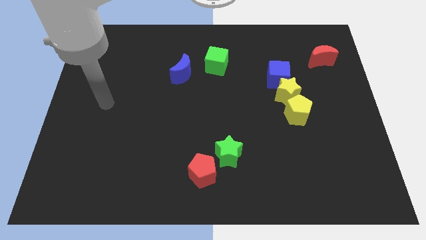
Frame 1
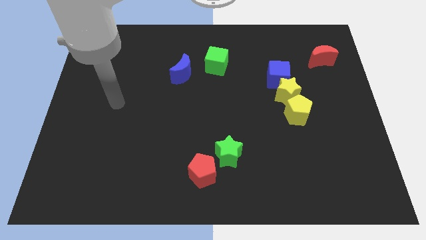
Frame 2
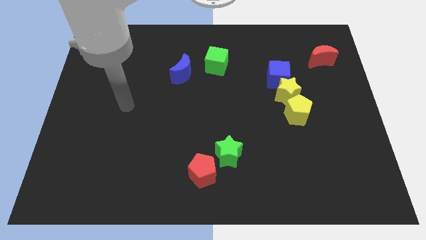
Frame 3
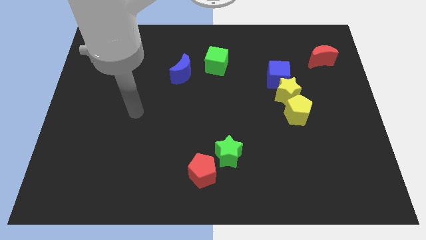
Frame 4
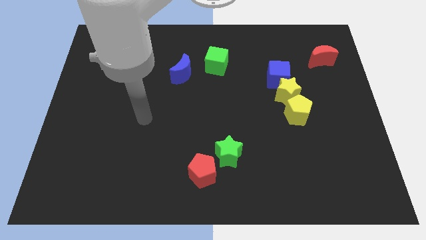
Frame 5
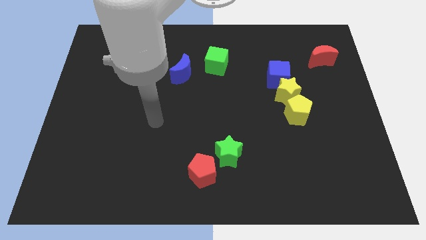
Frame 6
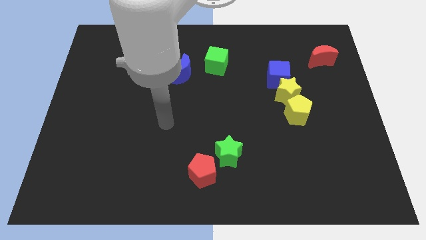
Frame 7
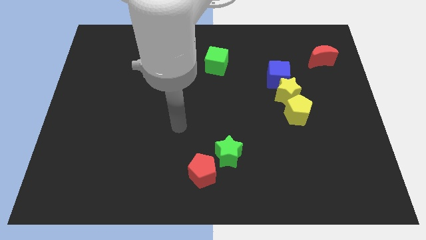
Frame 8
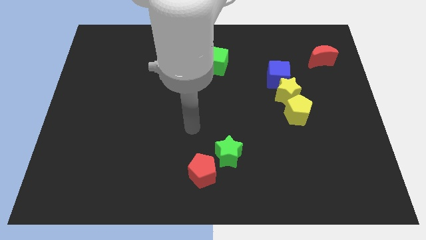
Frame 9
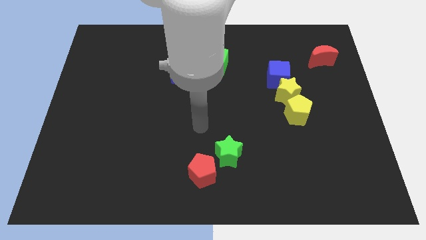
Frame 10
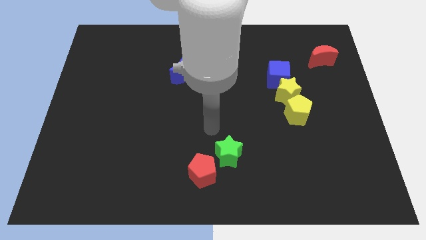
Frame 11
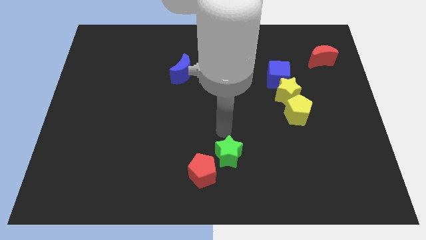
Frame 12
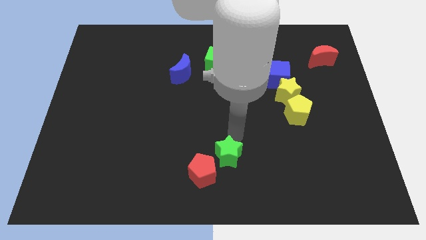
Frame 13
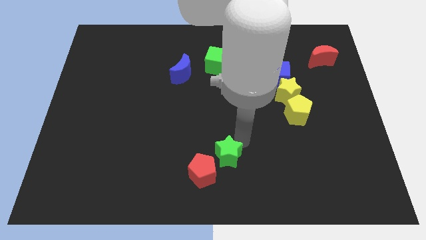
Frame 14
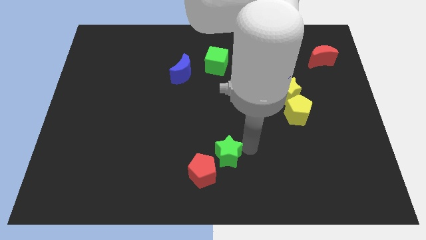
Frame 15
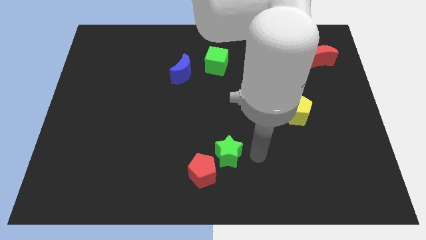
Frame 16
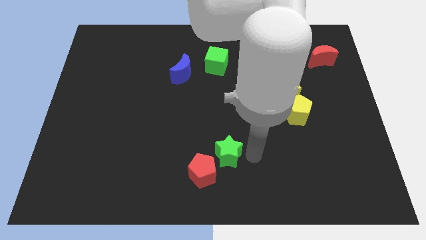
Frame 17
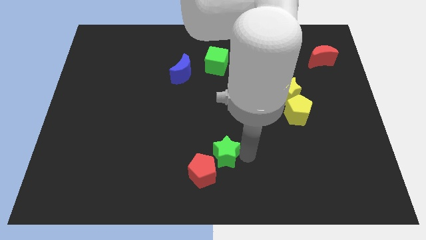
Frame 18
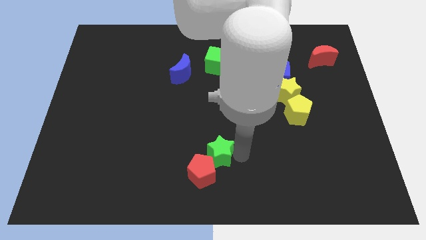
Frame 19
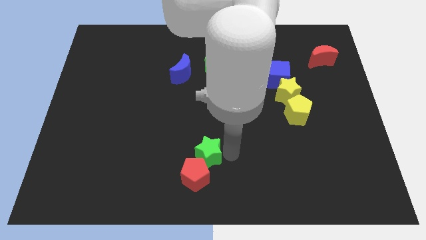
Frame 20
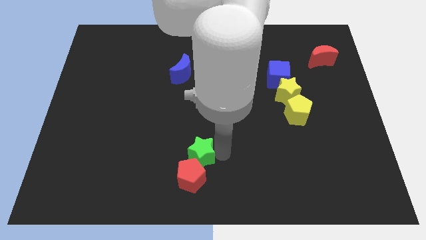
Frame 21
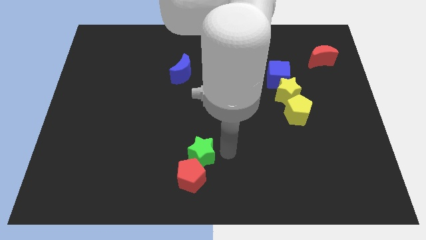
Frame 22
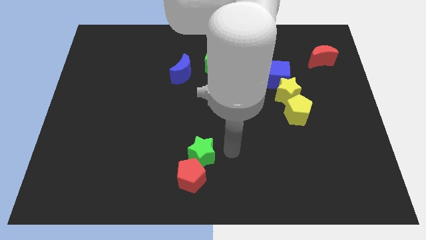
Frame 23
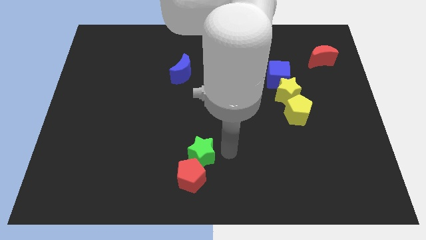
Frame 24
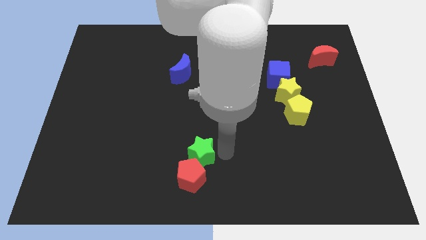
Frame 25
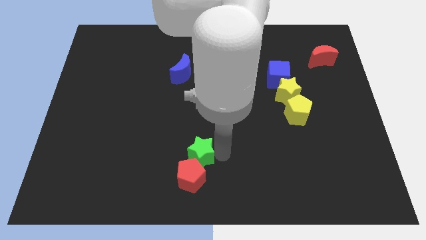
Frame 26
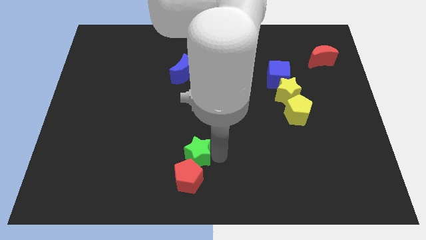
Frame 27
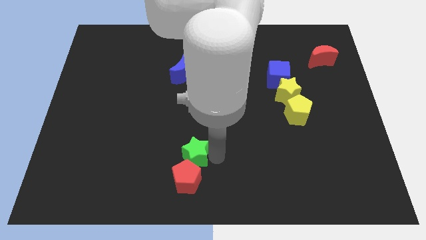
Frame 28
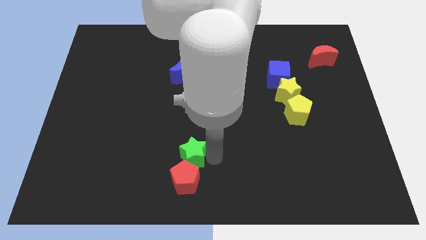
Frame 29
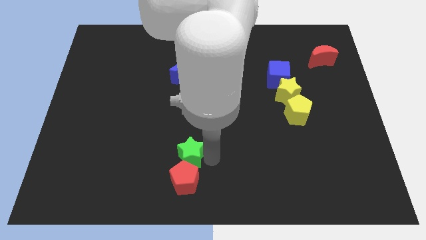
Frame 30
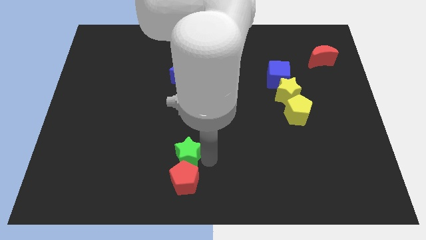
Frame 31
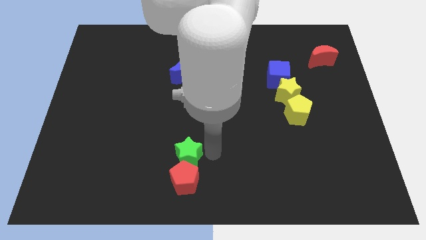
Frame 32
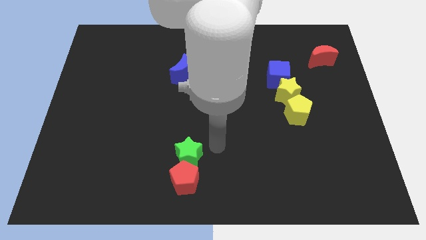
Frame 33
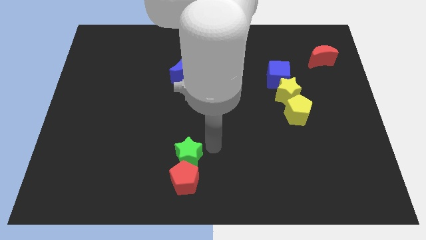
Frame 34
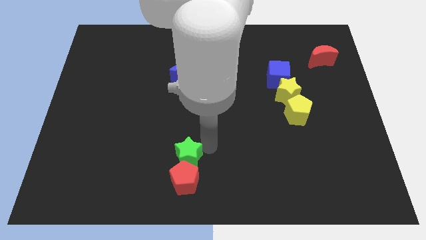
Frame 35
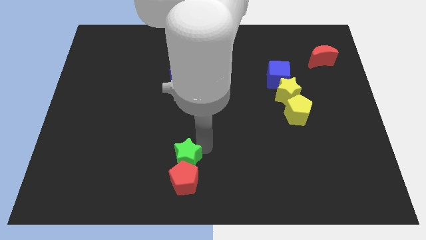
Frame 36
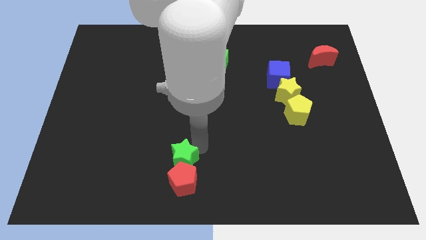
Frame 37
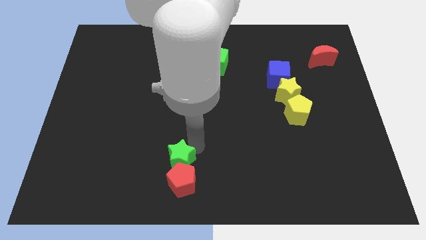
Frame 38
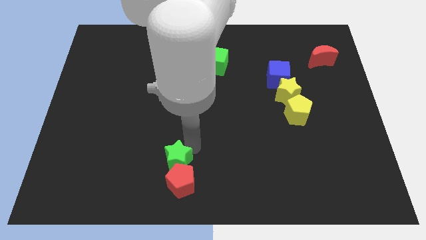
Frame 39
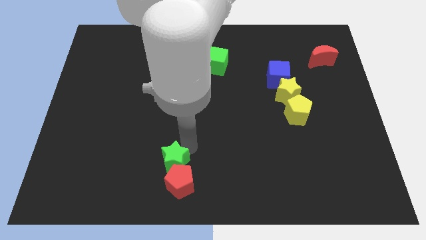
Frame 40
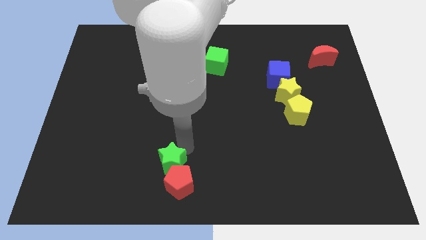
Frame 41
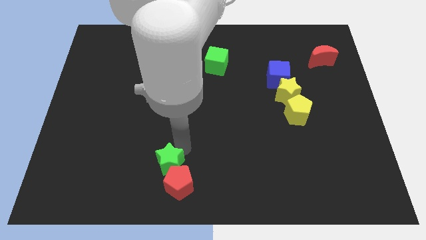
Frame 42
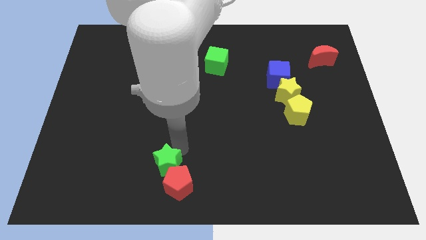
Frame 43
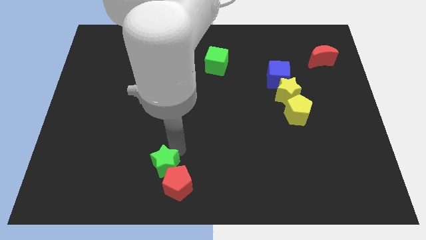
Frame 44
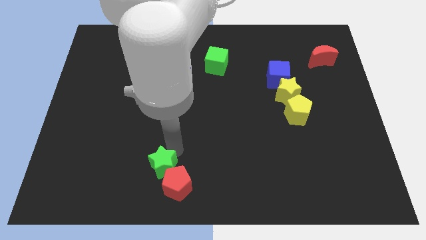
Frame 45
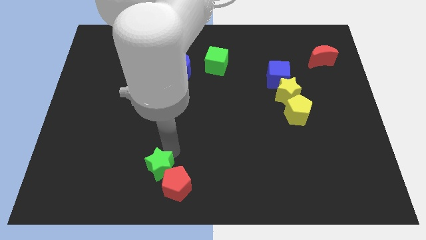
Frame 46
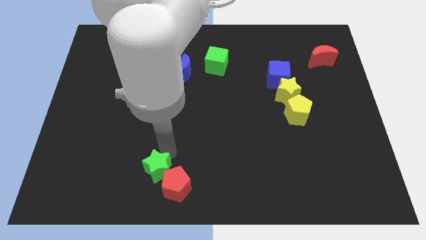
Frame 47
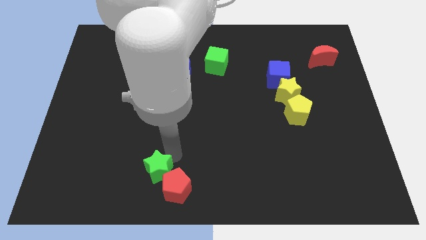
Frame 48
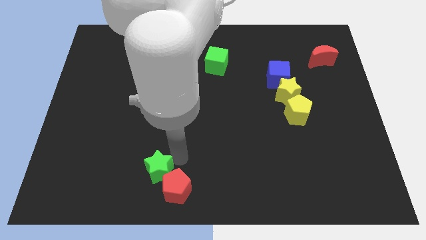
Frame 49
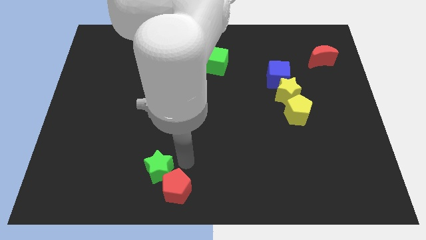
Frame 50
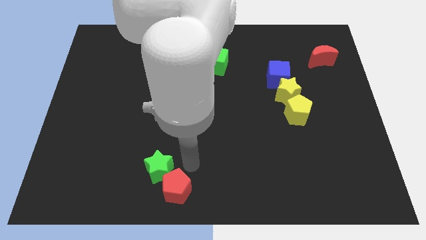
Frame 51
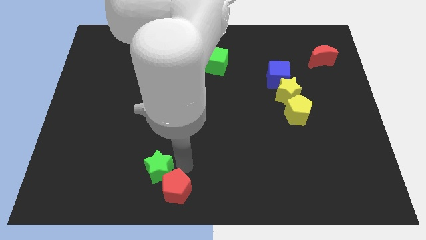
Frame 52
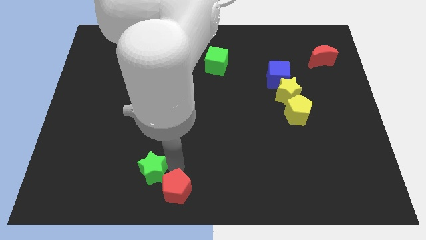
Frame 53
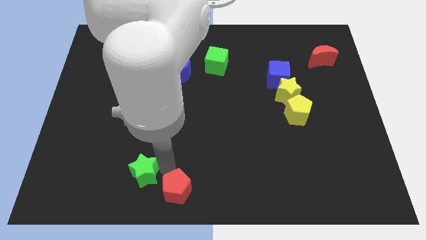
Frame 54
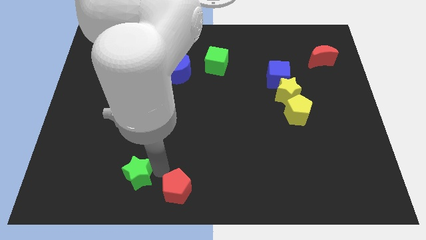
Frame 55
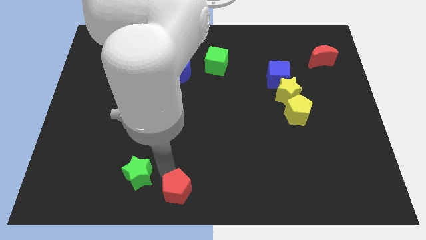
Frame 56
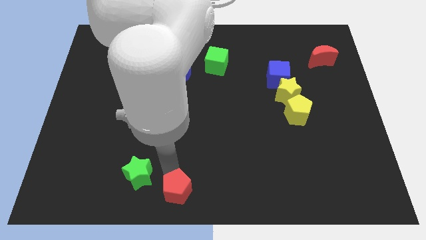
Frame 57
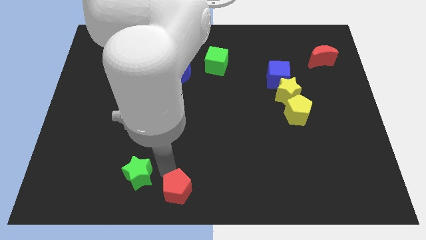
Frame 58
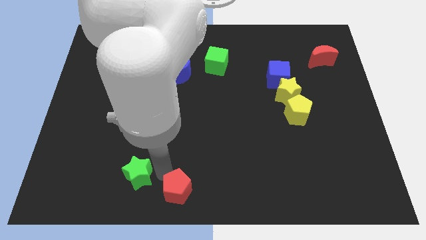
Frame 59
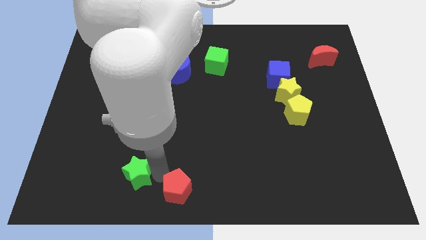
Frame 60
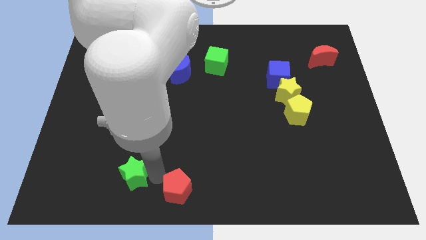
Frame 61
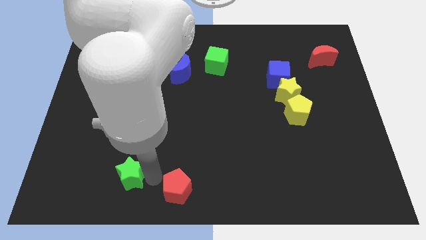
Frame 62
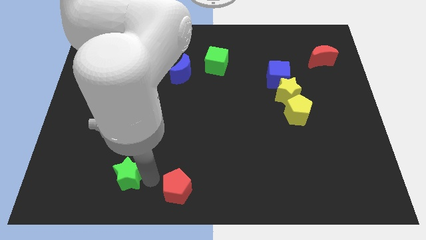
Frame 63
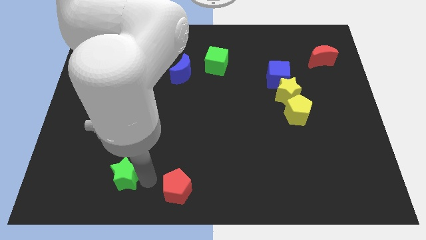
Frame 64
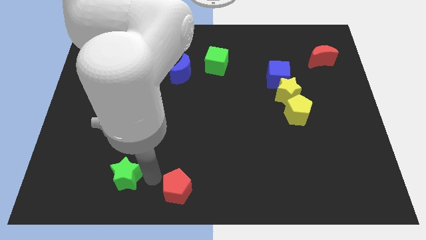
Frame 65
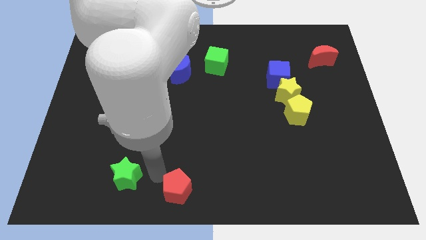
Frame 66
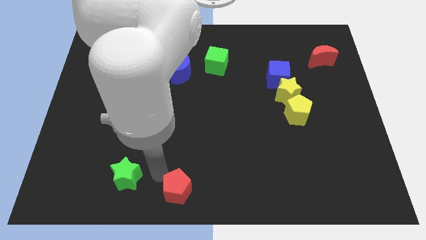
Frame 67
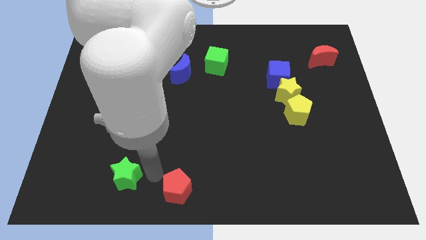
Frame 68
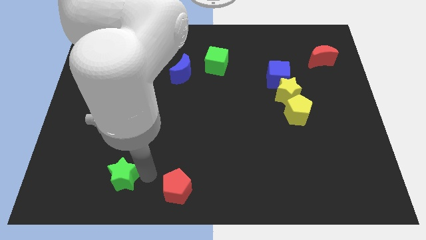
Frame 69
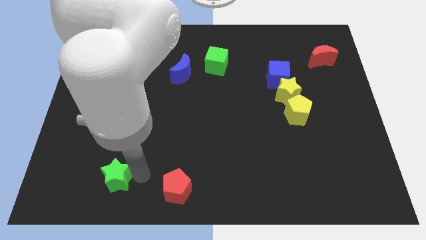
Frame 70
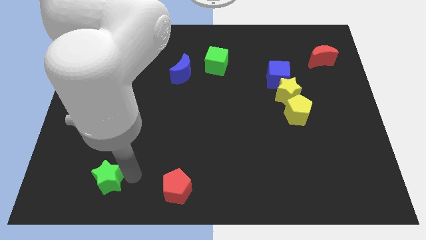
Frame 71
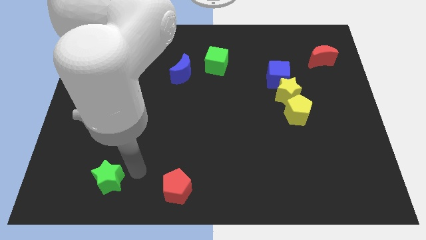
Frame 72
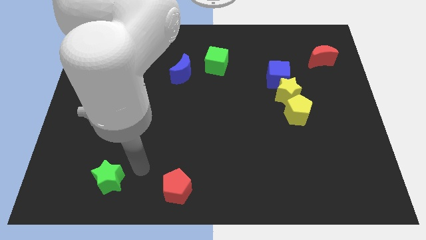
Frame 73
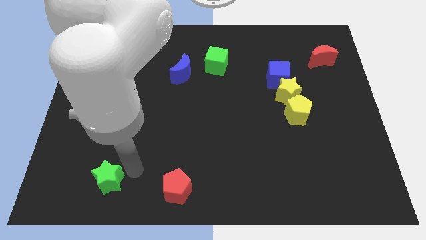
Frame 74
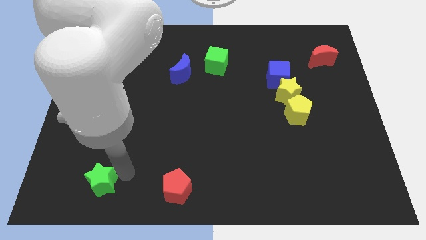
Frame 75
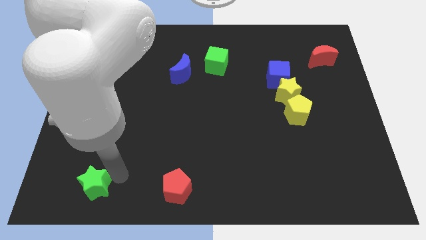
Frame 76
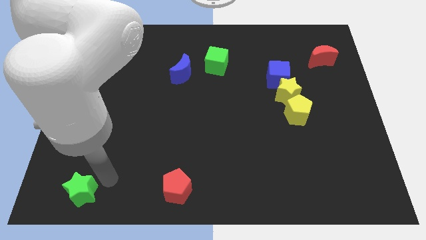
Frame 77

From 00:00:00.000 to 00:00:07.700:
push the green star to the bottom left corner
